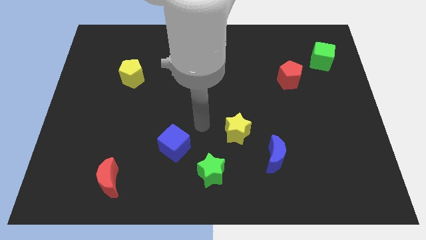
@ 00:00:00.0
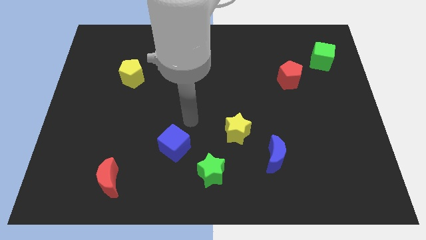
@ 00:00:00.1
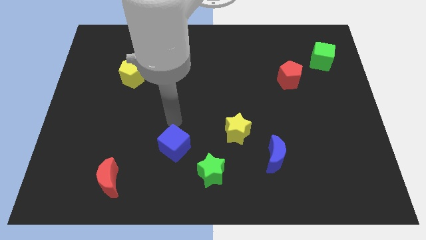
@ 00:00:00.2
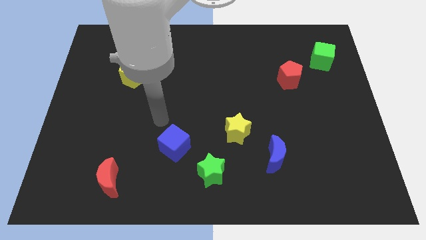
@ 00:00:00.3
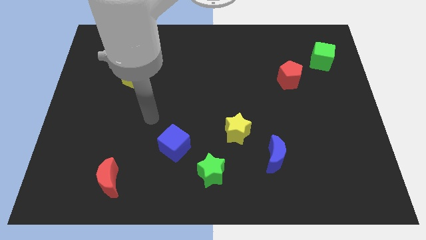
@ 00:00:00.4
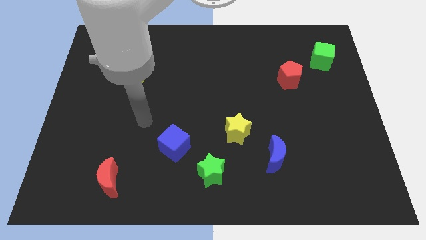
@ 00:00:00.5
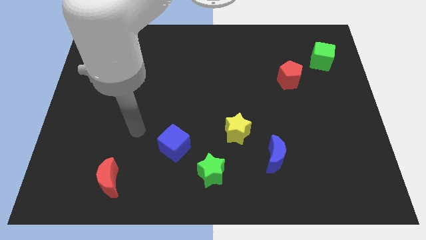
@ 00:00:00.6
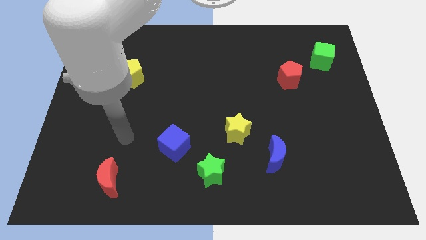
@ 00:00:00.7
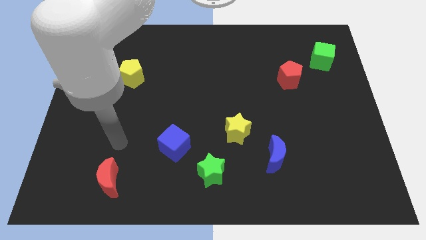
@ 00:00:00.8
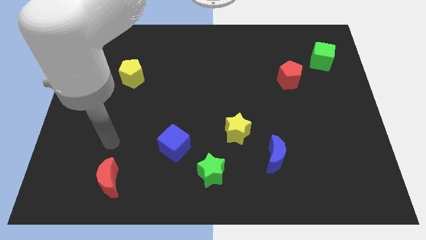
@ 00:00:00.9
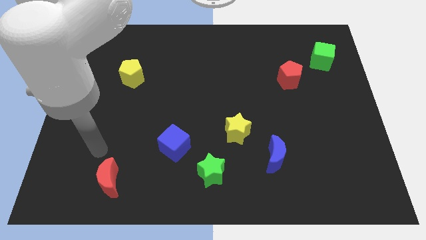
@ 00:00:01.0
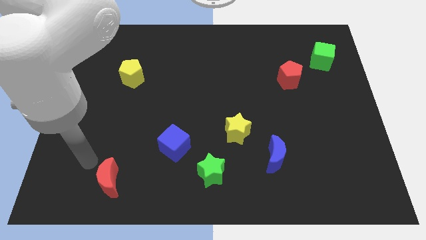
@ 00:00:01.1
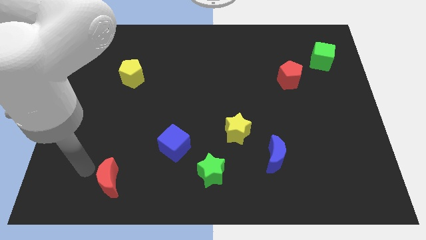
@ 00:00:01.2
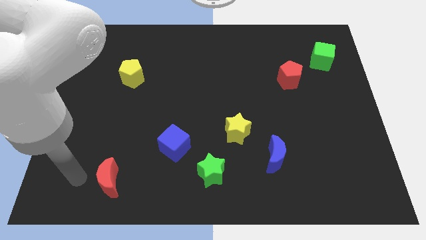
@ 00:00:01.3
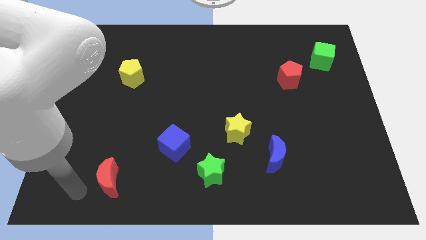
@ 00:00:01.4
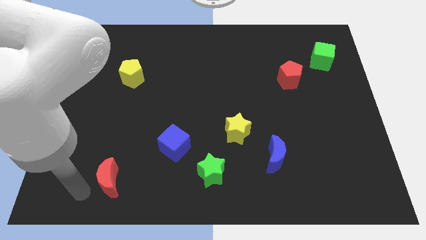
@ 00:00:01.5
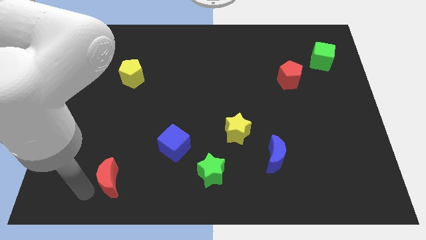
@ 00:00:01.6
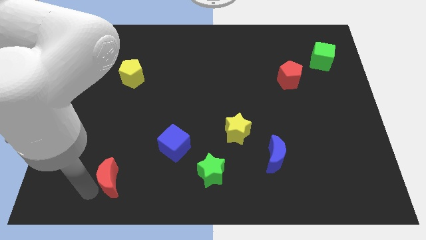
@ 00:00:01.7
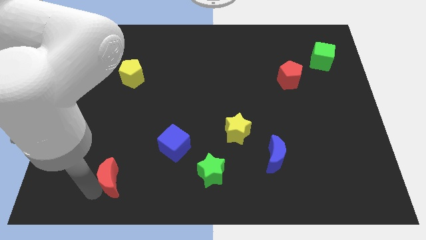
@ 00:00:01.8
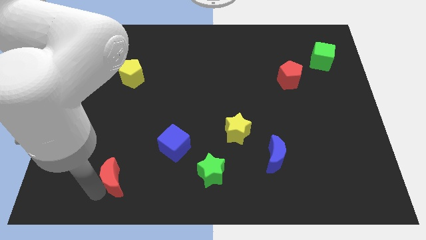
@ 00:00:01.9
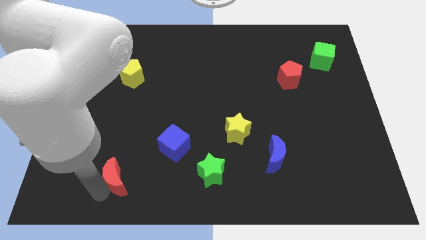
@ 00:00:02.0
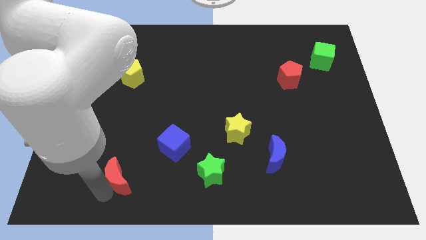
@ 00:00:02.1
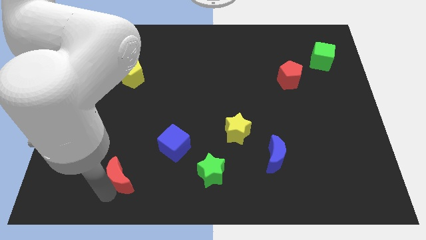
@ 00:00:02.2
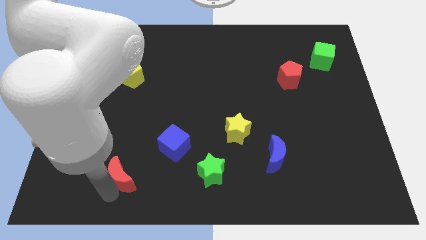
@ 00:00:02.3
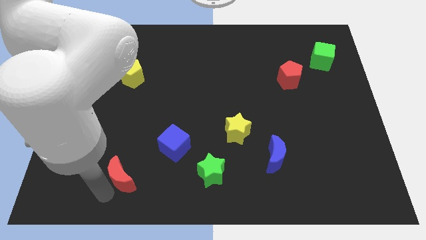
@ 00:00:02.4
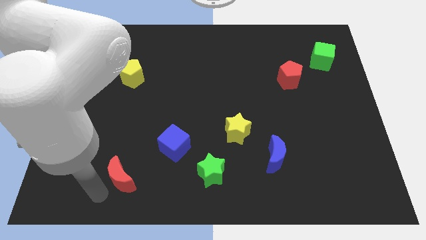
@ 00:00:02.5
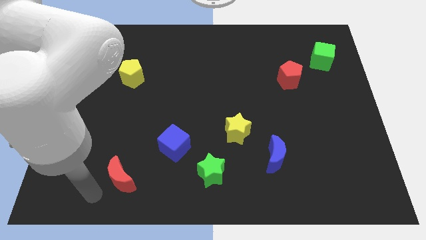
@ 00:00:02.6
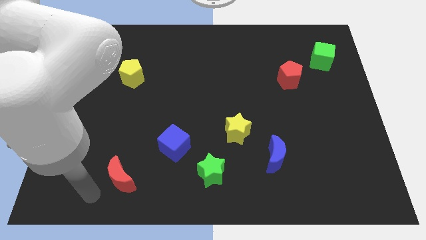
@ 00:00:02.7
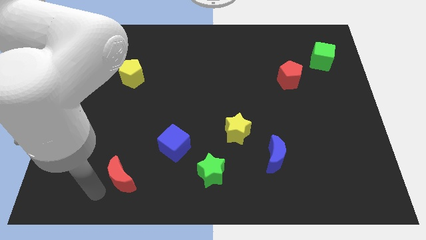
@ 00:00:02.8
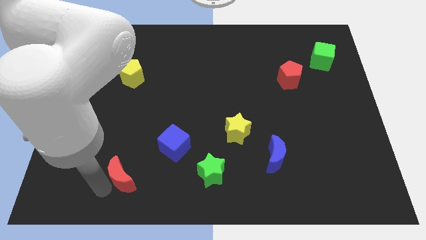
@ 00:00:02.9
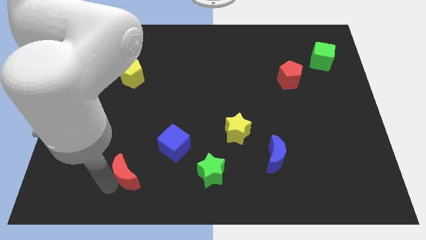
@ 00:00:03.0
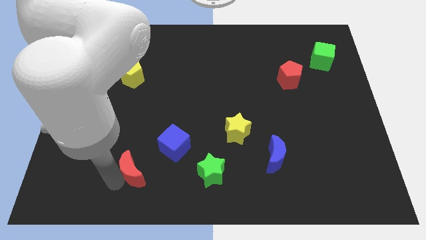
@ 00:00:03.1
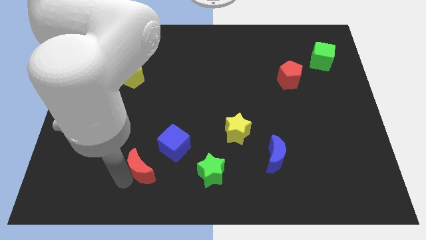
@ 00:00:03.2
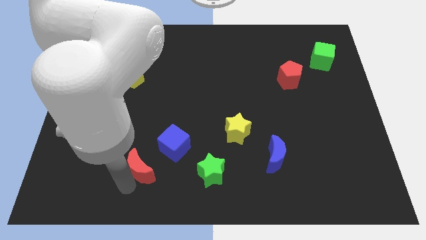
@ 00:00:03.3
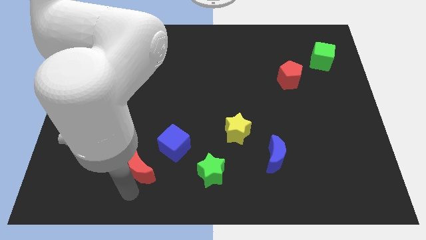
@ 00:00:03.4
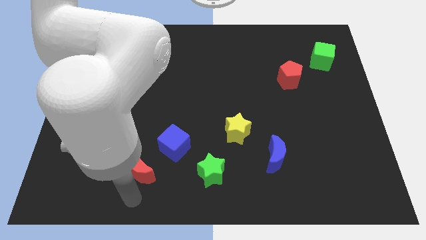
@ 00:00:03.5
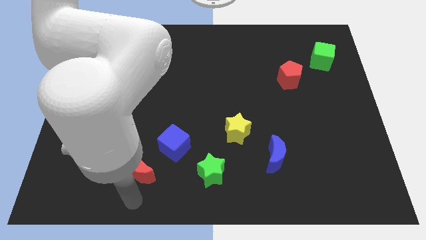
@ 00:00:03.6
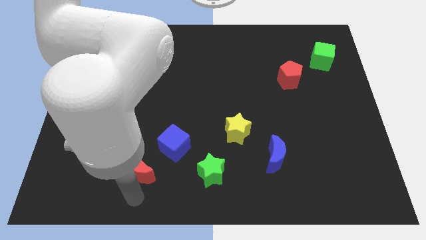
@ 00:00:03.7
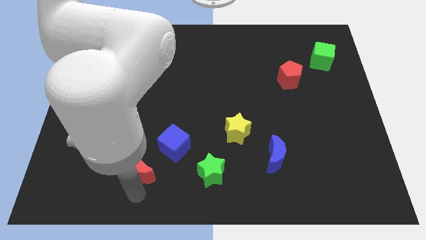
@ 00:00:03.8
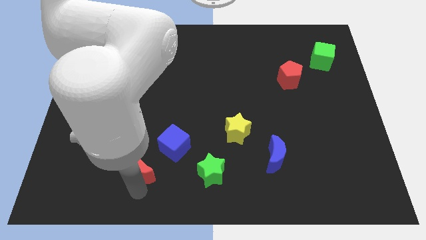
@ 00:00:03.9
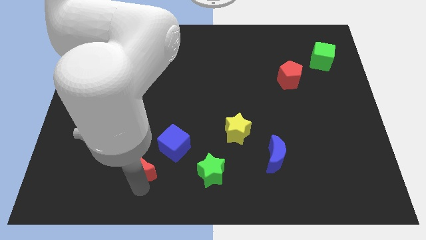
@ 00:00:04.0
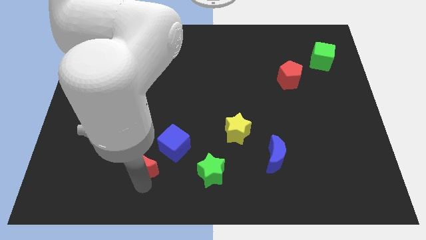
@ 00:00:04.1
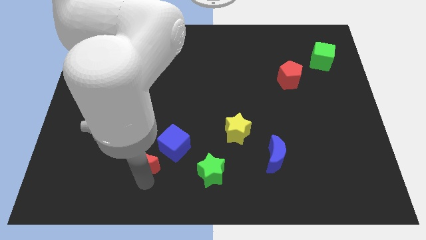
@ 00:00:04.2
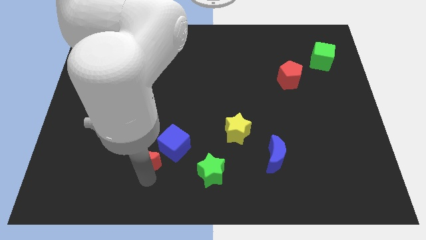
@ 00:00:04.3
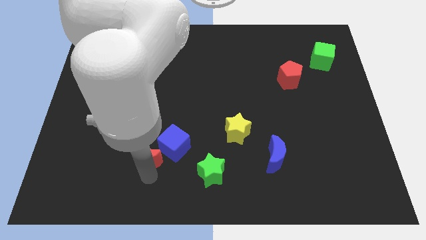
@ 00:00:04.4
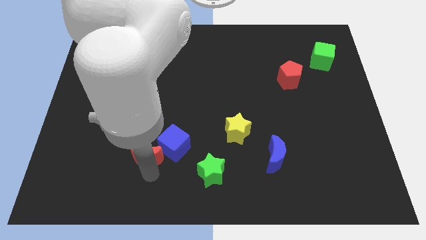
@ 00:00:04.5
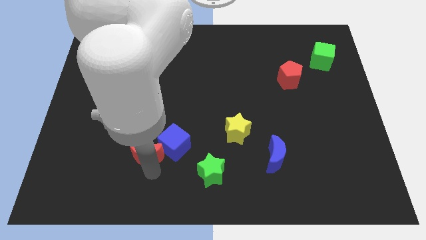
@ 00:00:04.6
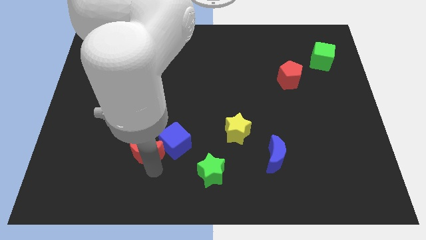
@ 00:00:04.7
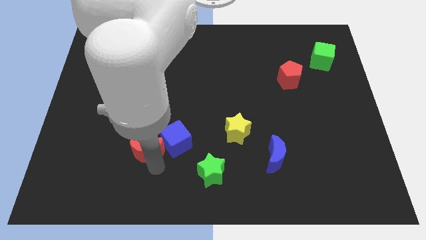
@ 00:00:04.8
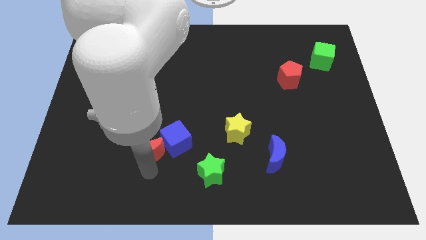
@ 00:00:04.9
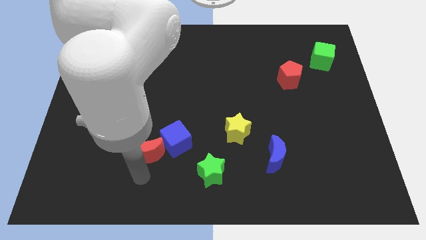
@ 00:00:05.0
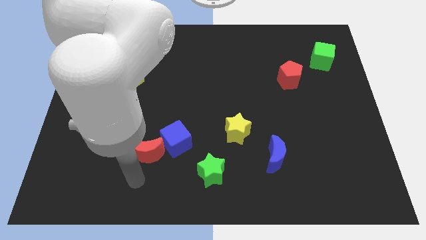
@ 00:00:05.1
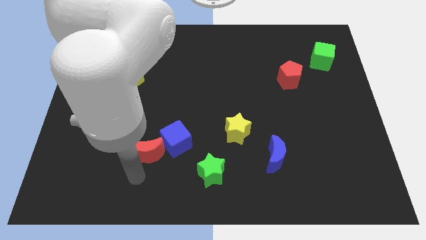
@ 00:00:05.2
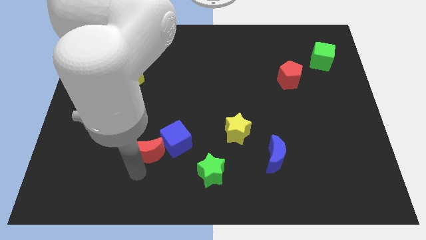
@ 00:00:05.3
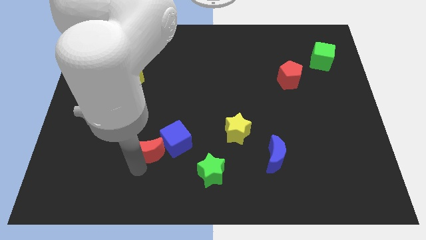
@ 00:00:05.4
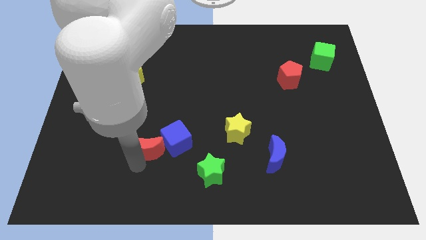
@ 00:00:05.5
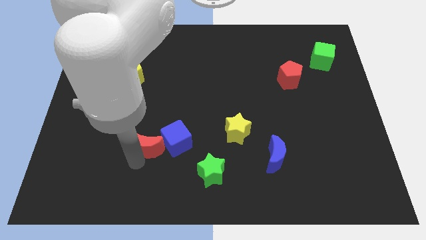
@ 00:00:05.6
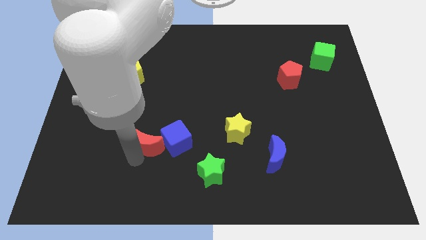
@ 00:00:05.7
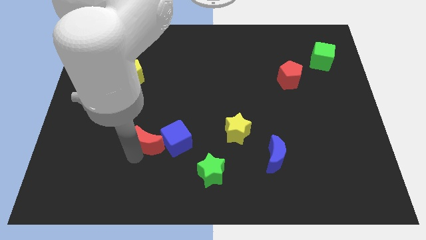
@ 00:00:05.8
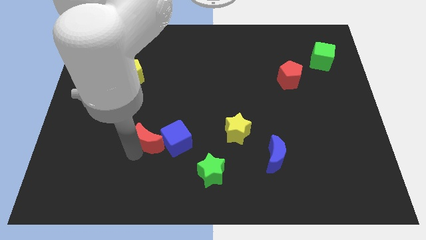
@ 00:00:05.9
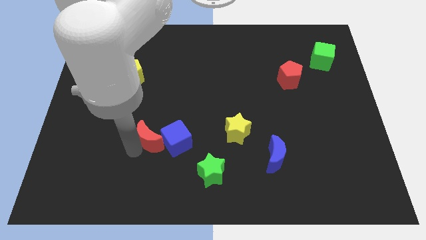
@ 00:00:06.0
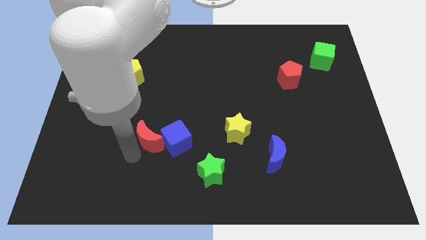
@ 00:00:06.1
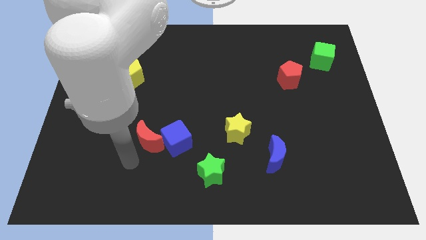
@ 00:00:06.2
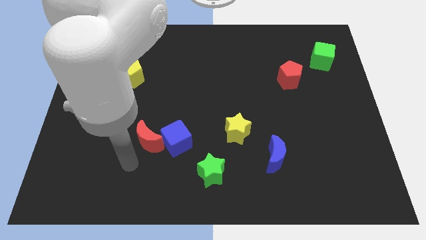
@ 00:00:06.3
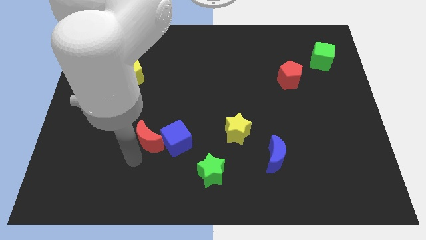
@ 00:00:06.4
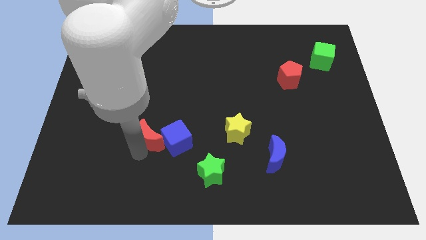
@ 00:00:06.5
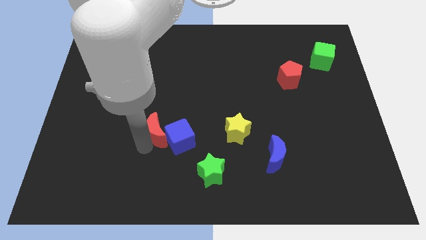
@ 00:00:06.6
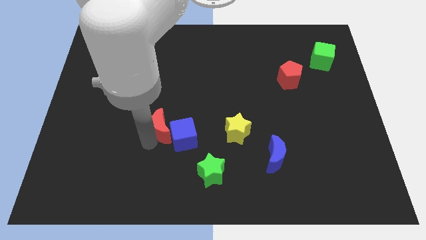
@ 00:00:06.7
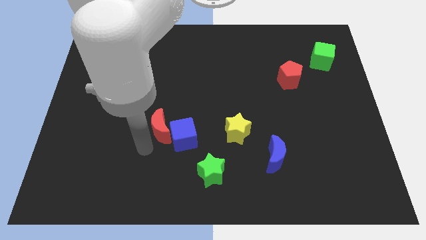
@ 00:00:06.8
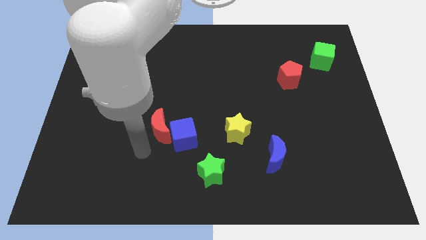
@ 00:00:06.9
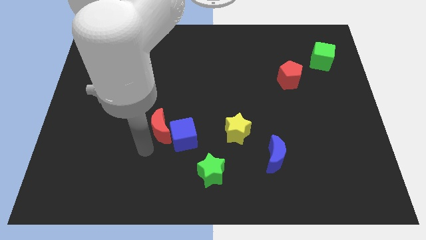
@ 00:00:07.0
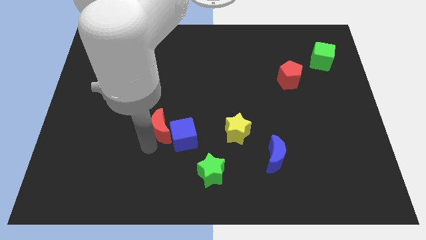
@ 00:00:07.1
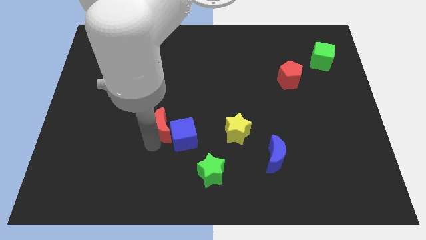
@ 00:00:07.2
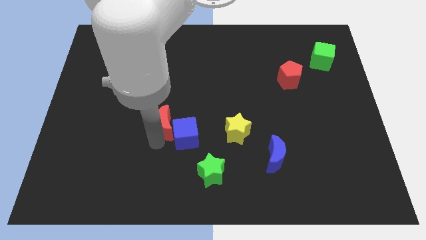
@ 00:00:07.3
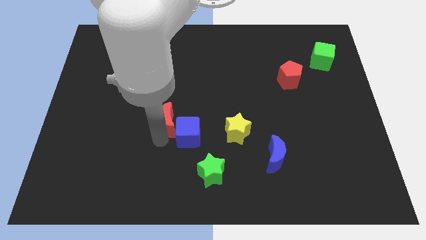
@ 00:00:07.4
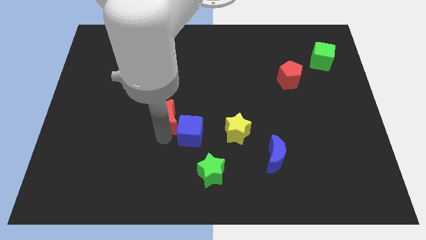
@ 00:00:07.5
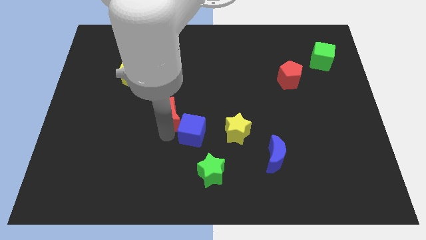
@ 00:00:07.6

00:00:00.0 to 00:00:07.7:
push the red moon to the top side of the blue cube
